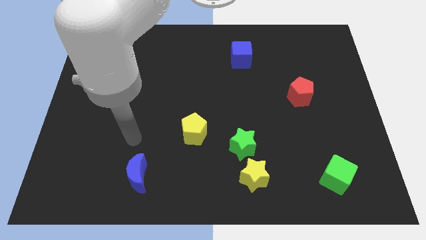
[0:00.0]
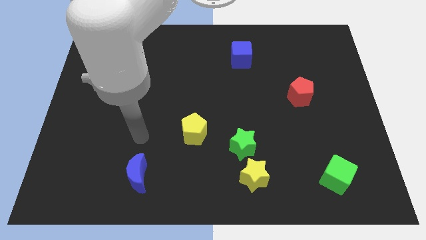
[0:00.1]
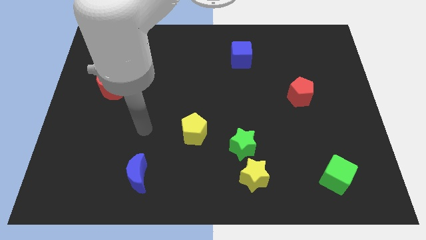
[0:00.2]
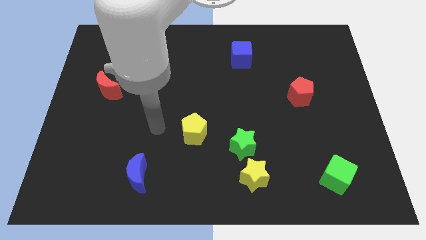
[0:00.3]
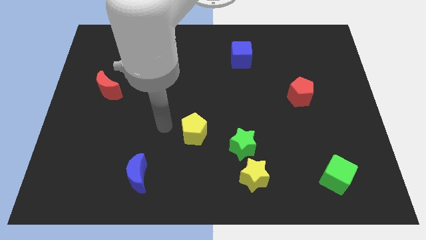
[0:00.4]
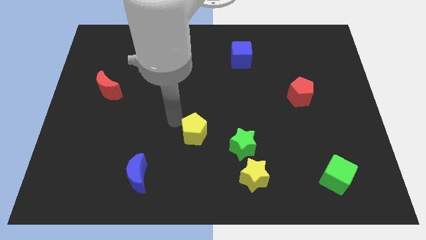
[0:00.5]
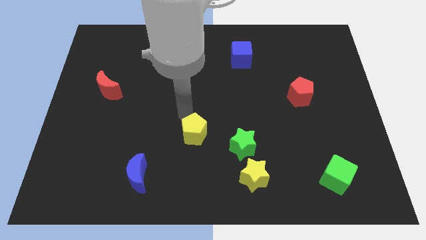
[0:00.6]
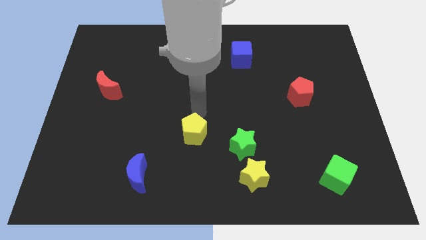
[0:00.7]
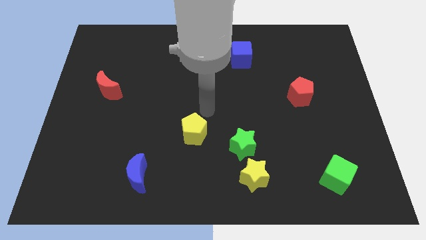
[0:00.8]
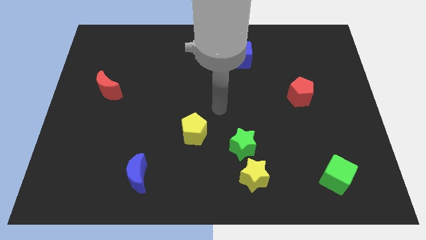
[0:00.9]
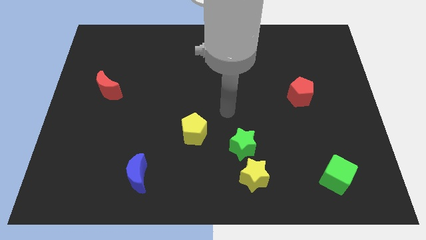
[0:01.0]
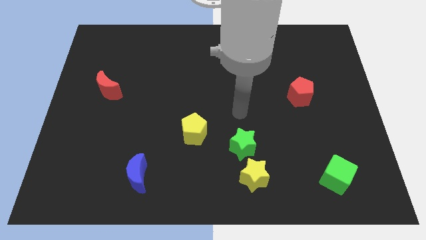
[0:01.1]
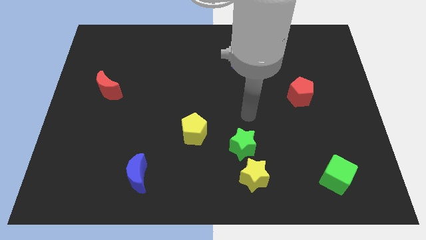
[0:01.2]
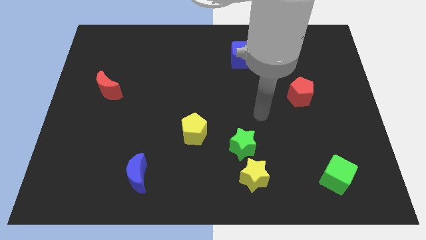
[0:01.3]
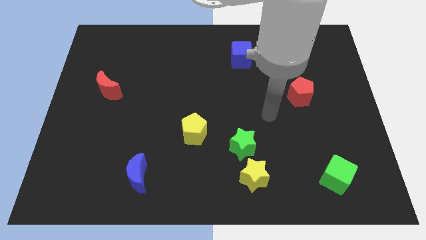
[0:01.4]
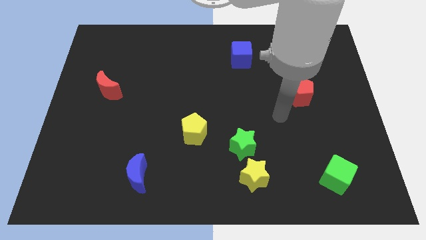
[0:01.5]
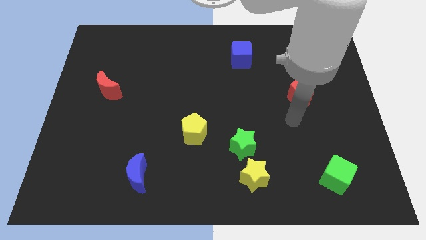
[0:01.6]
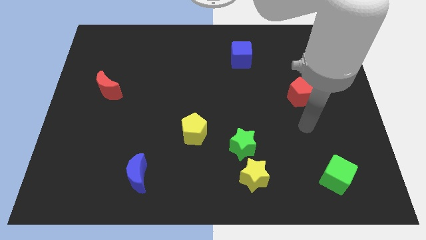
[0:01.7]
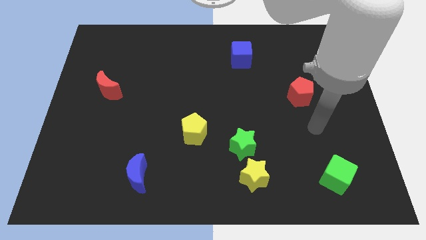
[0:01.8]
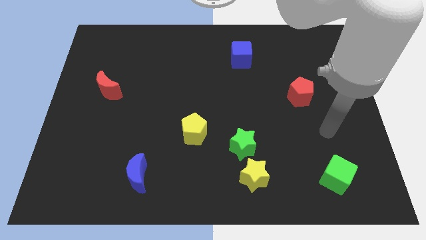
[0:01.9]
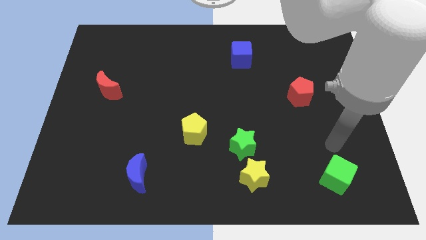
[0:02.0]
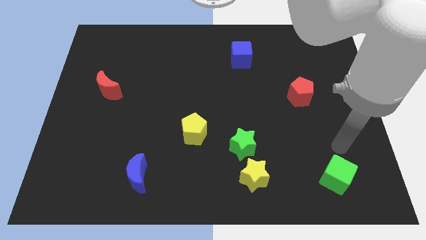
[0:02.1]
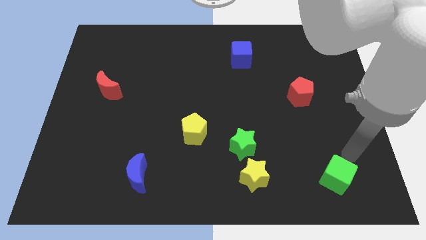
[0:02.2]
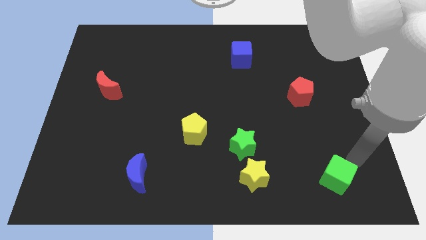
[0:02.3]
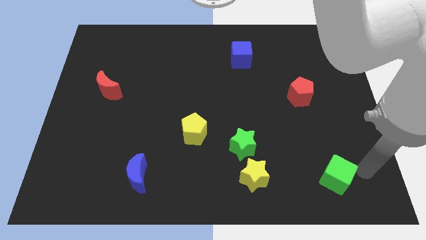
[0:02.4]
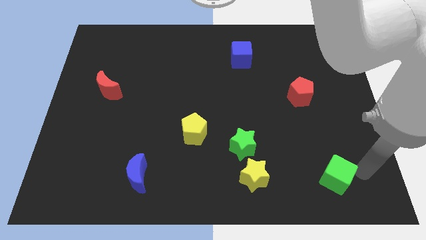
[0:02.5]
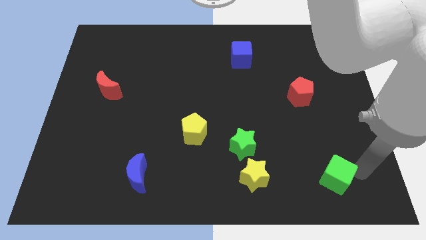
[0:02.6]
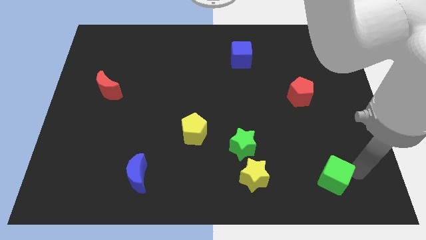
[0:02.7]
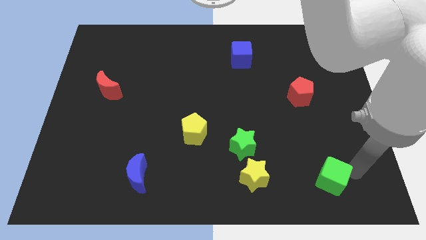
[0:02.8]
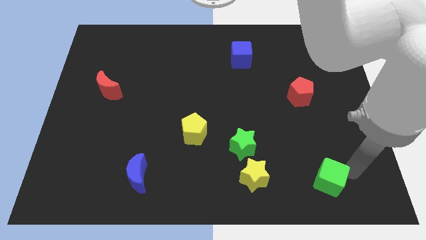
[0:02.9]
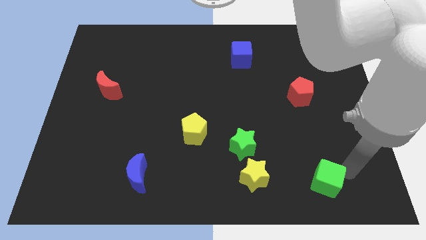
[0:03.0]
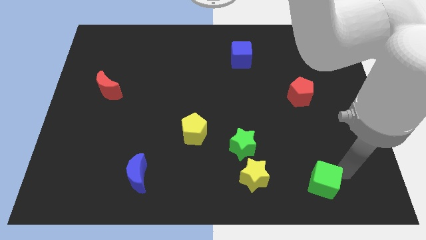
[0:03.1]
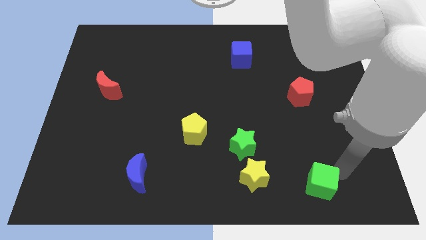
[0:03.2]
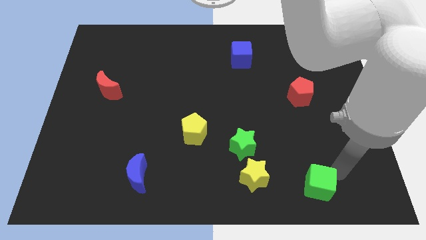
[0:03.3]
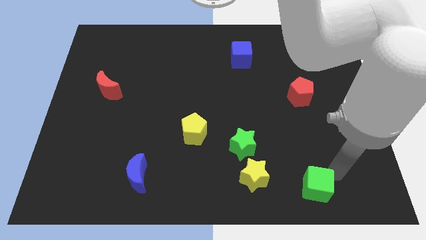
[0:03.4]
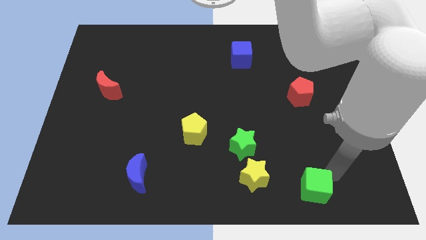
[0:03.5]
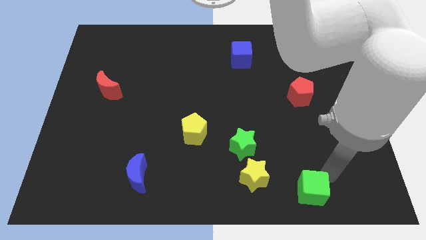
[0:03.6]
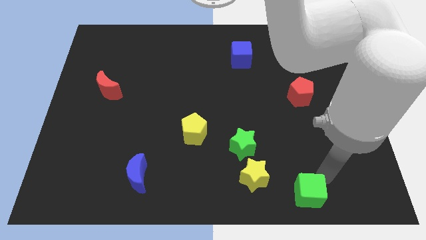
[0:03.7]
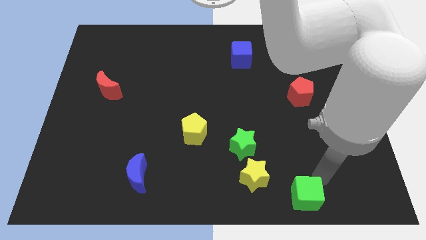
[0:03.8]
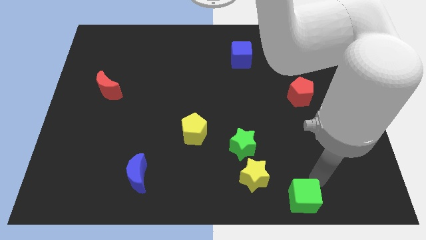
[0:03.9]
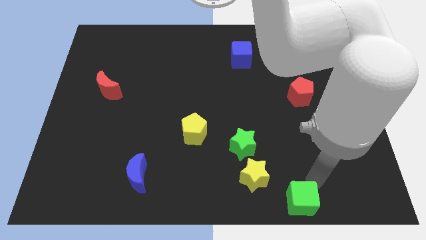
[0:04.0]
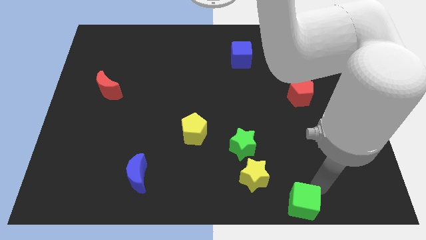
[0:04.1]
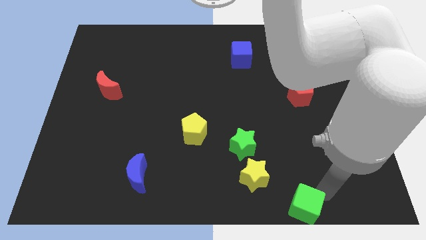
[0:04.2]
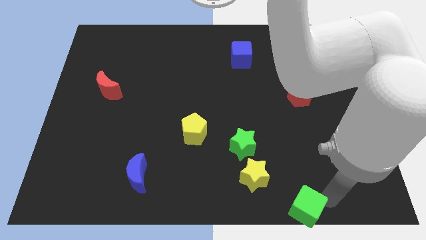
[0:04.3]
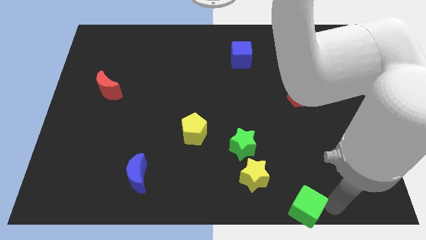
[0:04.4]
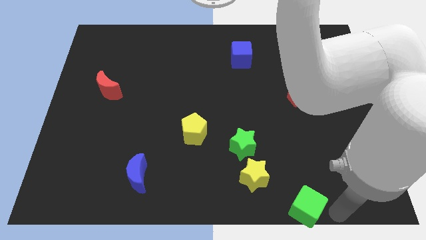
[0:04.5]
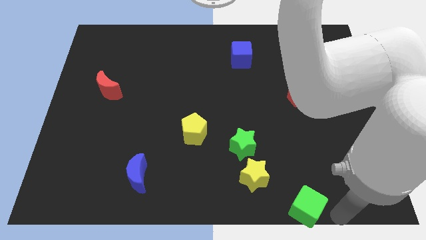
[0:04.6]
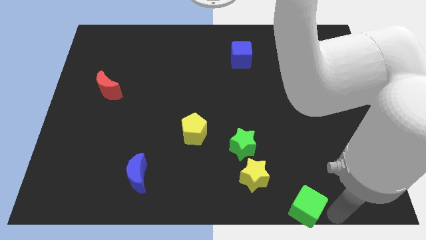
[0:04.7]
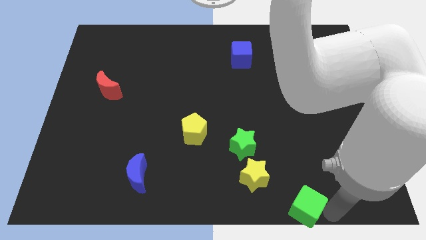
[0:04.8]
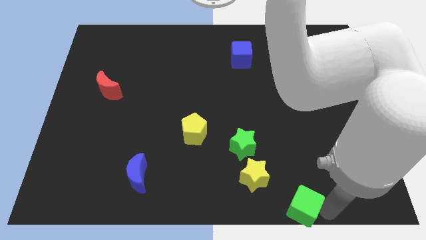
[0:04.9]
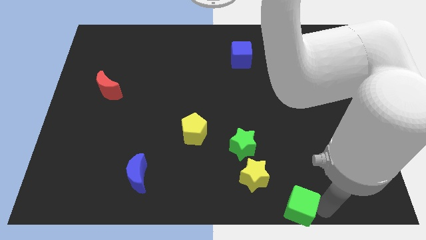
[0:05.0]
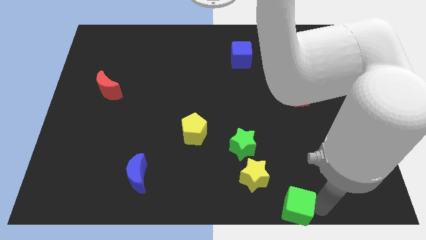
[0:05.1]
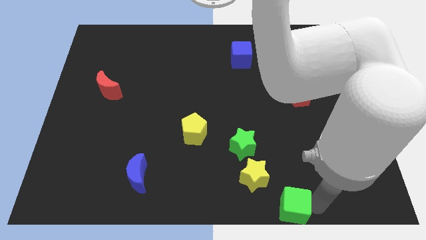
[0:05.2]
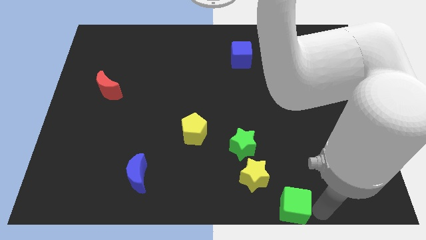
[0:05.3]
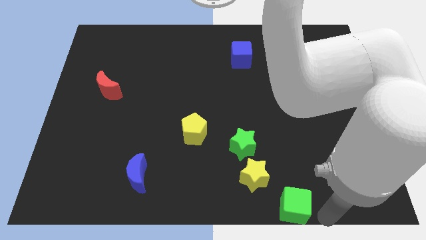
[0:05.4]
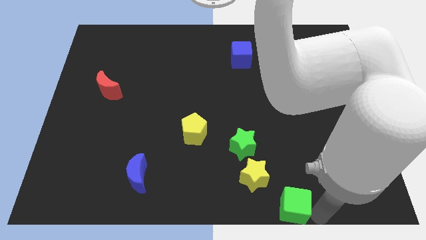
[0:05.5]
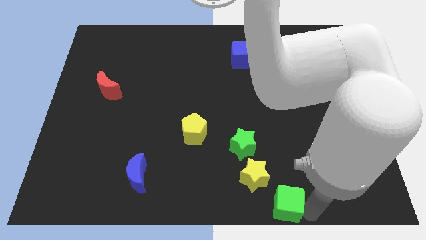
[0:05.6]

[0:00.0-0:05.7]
move the green cube to the bottom side

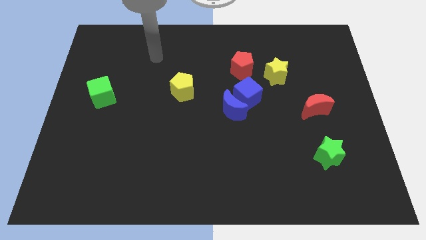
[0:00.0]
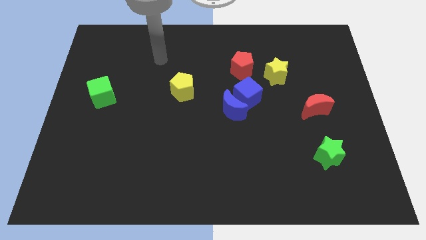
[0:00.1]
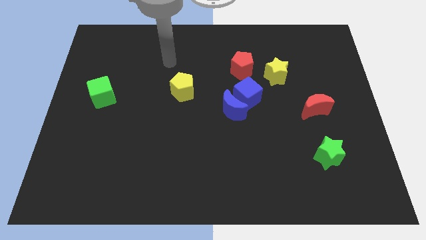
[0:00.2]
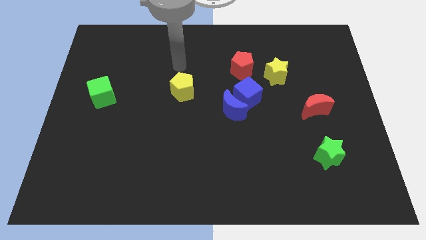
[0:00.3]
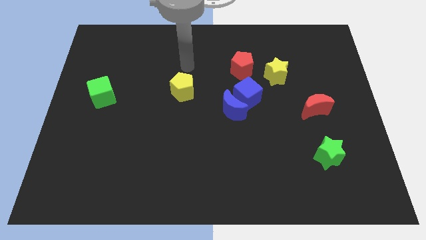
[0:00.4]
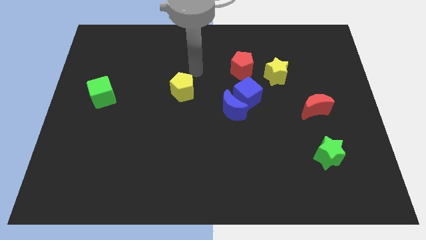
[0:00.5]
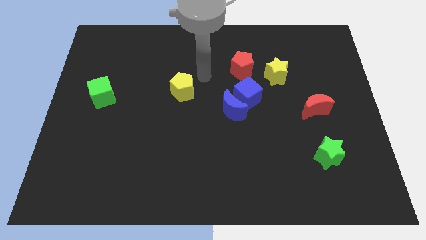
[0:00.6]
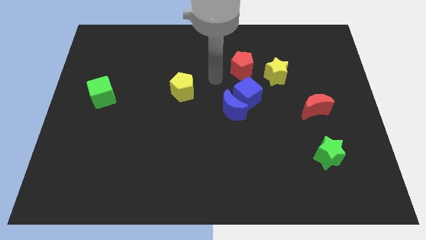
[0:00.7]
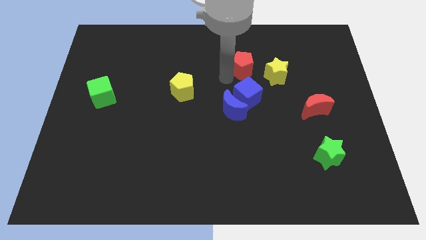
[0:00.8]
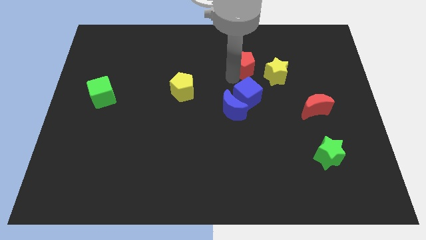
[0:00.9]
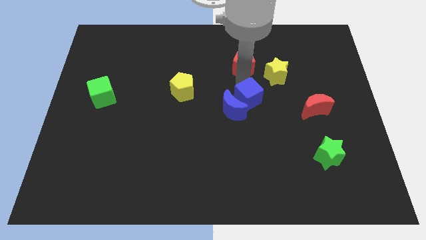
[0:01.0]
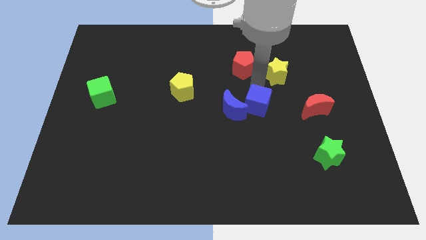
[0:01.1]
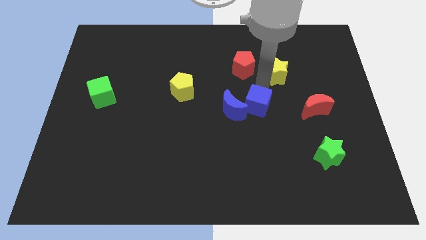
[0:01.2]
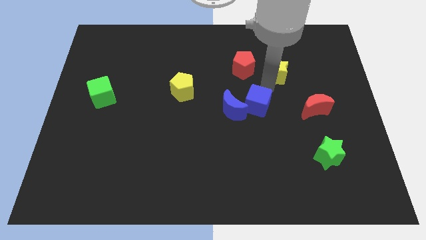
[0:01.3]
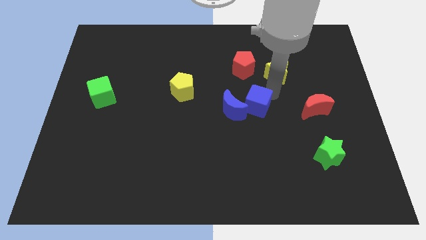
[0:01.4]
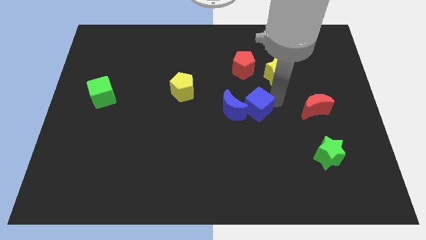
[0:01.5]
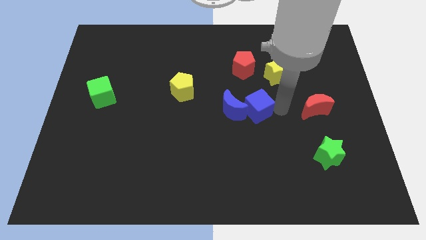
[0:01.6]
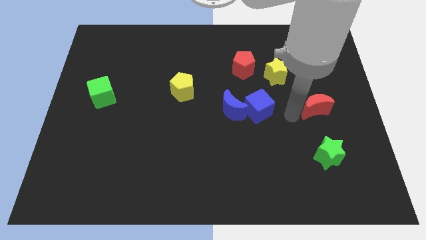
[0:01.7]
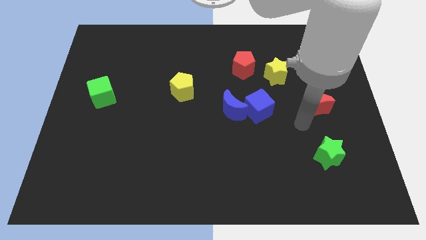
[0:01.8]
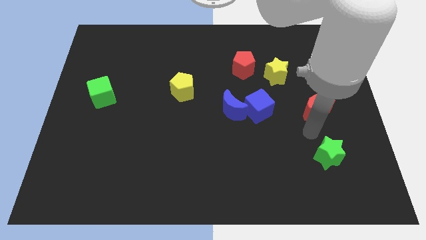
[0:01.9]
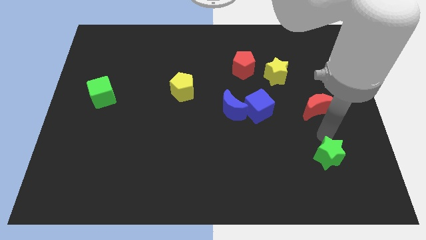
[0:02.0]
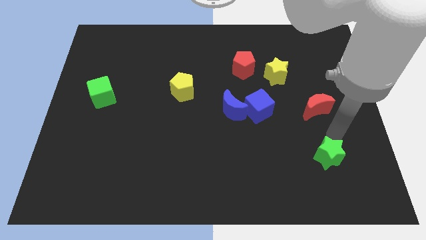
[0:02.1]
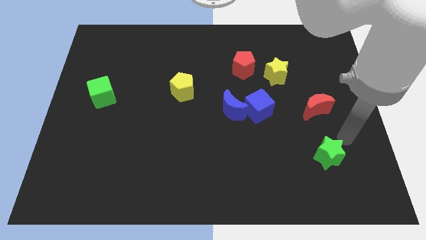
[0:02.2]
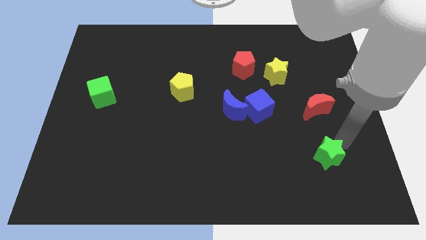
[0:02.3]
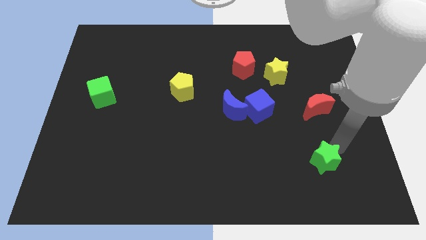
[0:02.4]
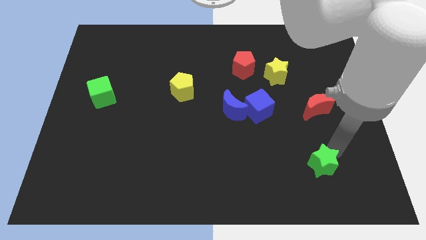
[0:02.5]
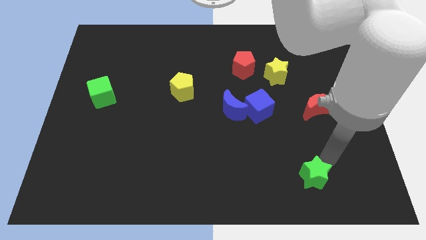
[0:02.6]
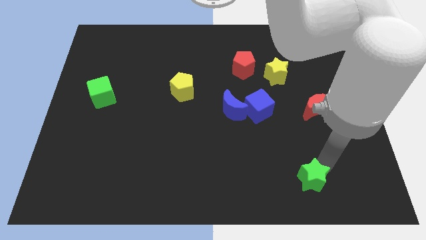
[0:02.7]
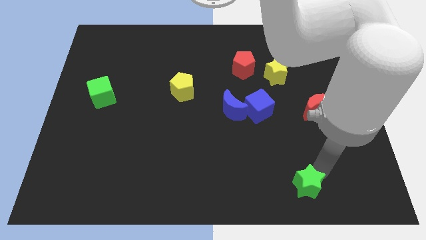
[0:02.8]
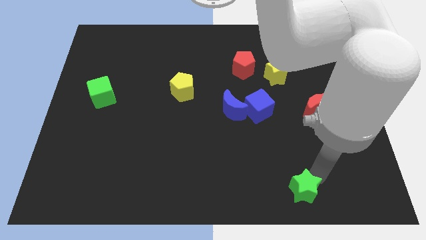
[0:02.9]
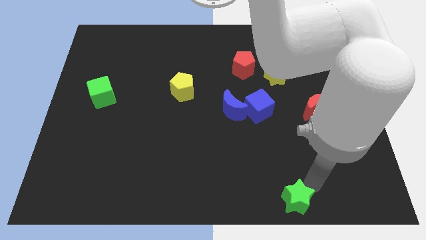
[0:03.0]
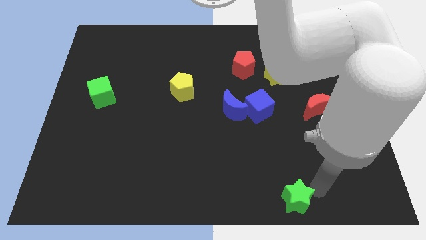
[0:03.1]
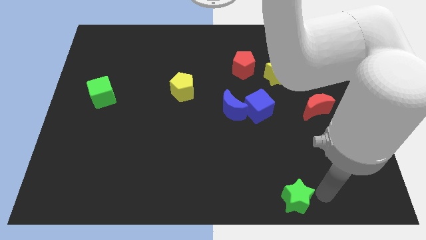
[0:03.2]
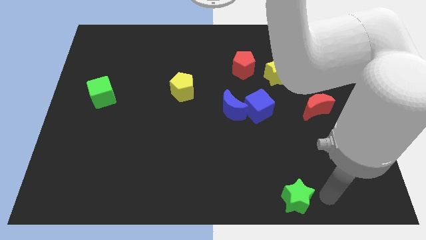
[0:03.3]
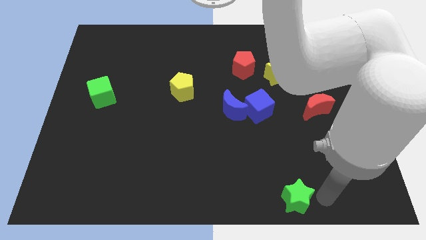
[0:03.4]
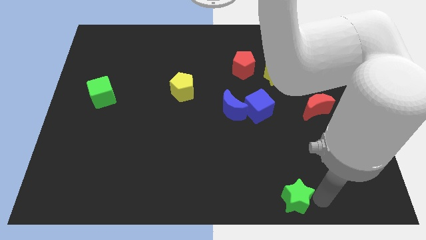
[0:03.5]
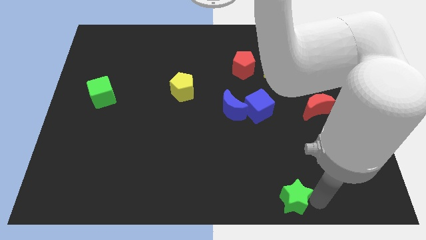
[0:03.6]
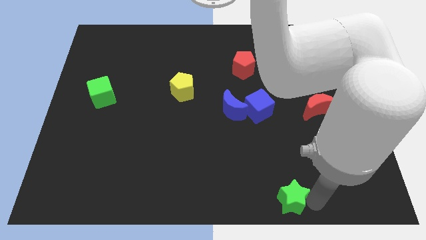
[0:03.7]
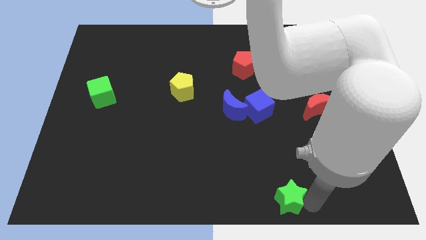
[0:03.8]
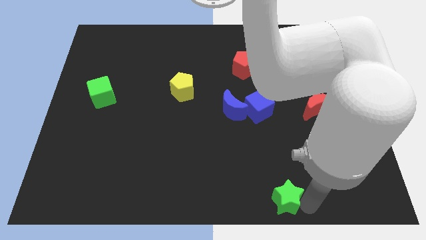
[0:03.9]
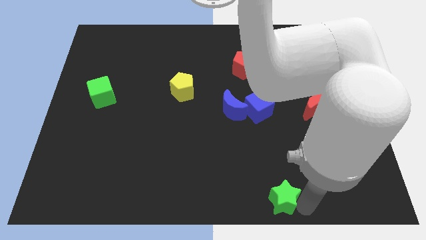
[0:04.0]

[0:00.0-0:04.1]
put the green star to the bottom side
